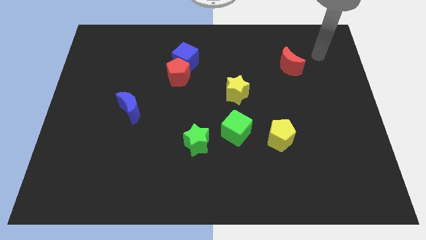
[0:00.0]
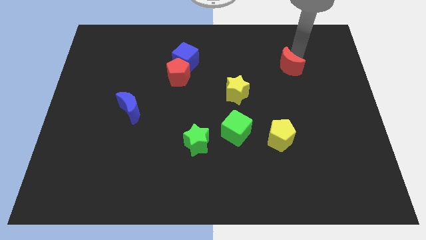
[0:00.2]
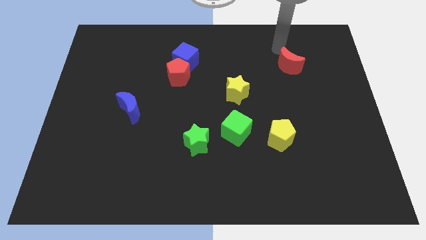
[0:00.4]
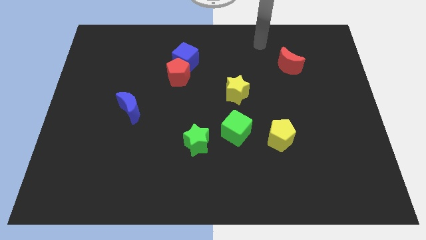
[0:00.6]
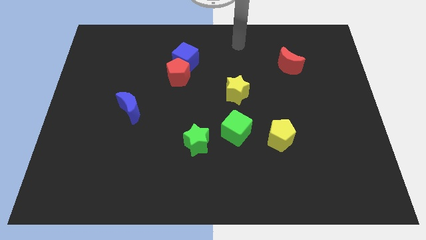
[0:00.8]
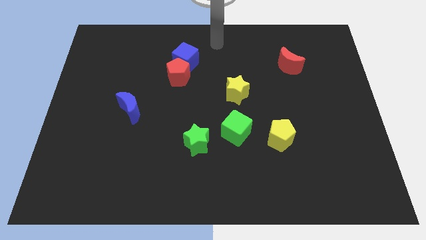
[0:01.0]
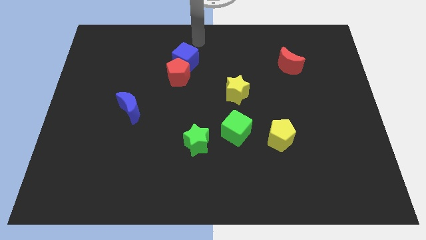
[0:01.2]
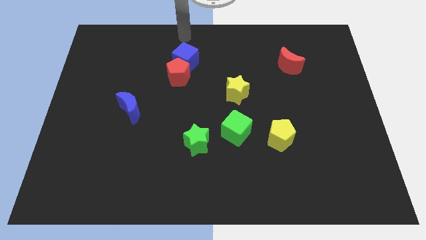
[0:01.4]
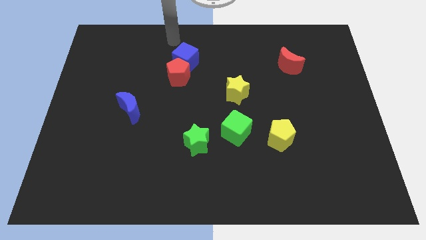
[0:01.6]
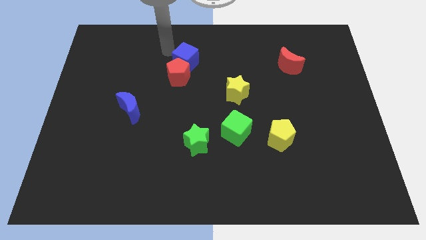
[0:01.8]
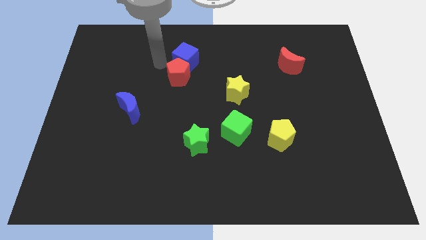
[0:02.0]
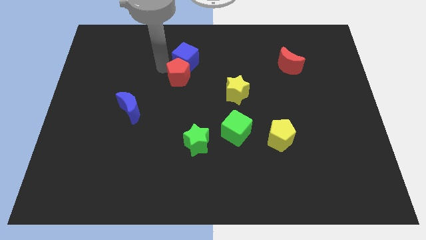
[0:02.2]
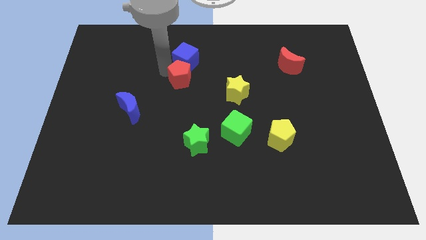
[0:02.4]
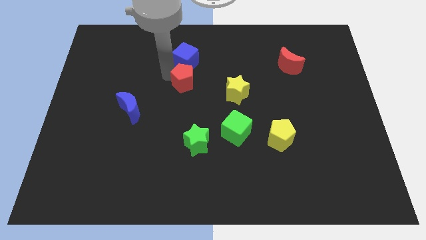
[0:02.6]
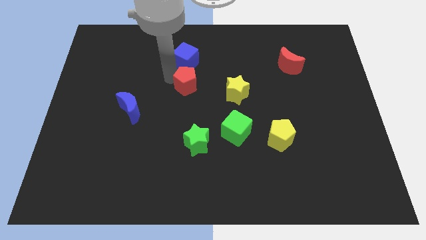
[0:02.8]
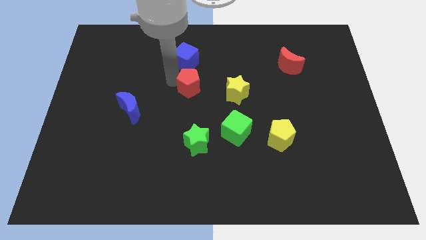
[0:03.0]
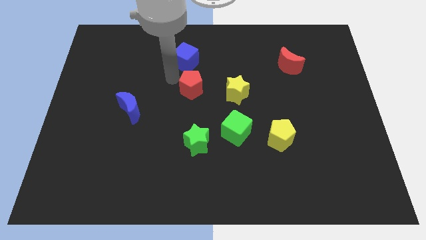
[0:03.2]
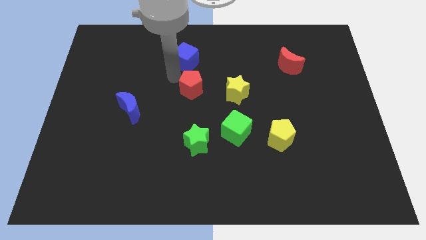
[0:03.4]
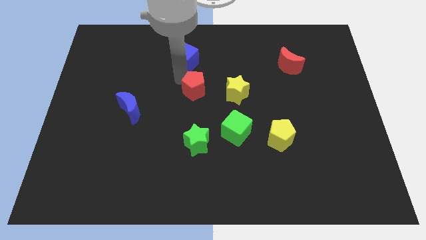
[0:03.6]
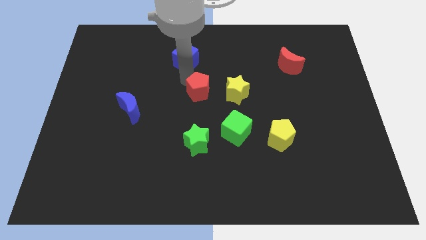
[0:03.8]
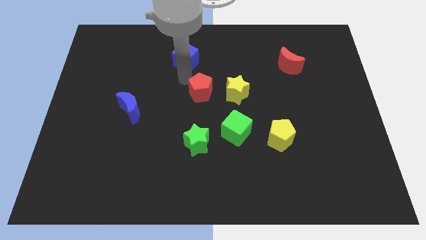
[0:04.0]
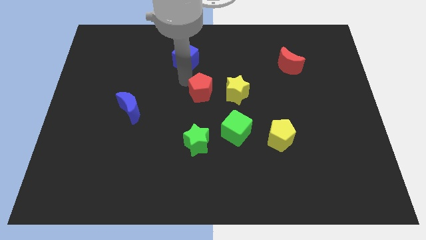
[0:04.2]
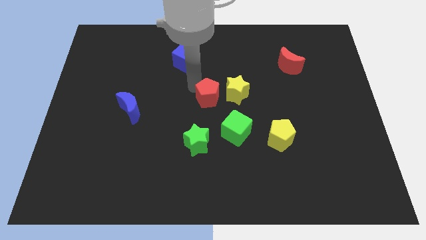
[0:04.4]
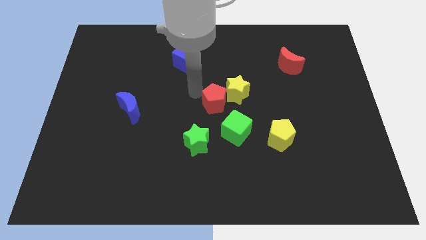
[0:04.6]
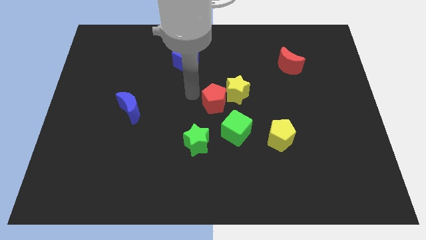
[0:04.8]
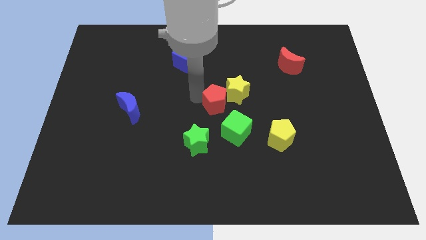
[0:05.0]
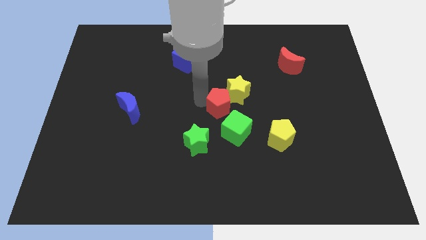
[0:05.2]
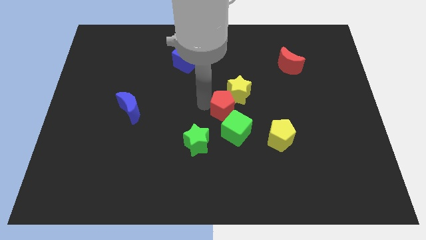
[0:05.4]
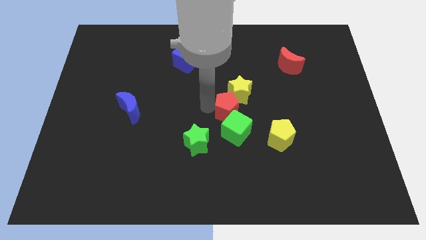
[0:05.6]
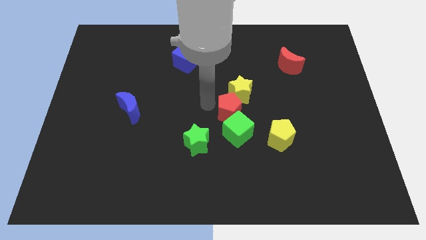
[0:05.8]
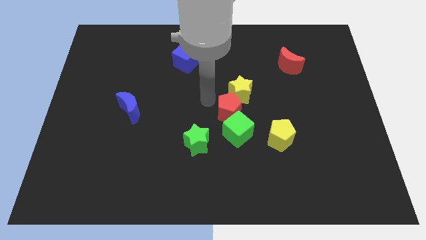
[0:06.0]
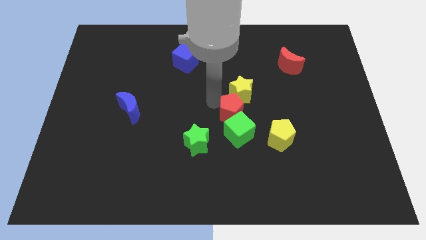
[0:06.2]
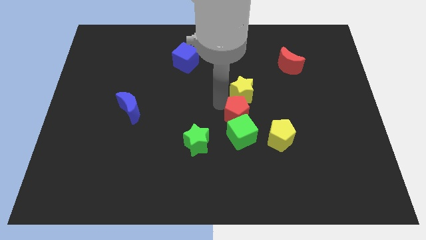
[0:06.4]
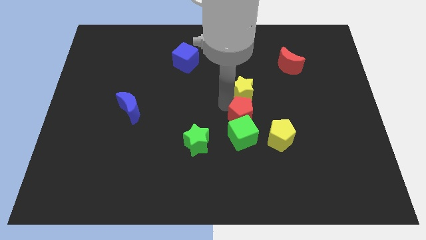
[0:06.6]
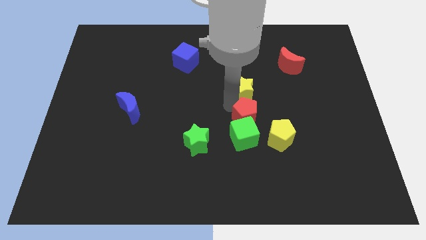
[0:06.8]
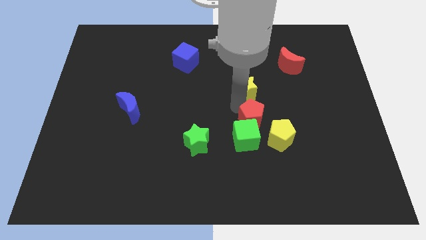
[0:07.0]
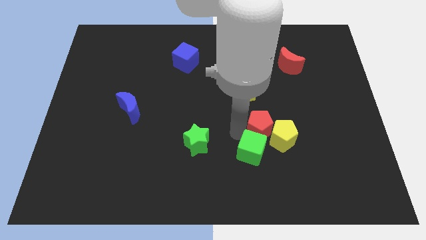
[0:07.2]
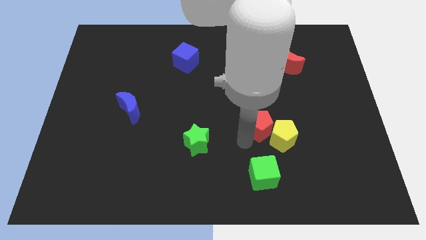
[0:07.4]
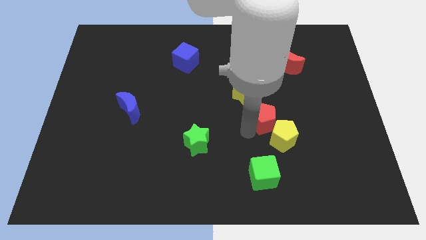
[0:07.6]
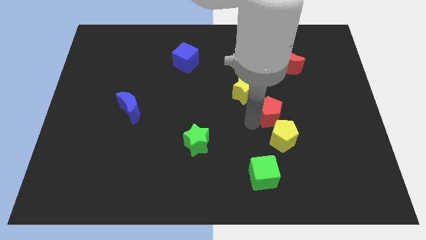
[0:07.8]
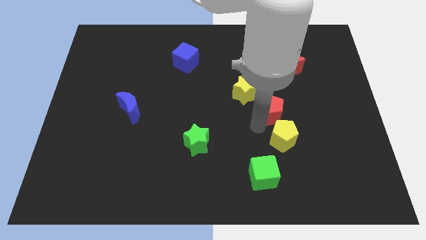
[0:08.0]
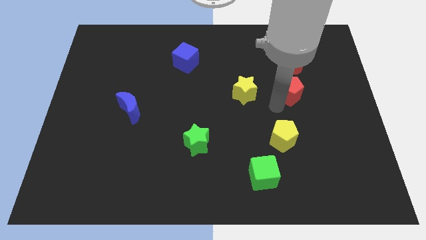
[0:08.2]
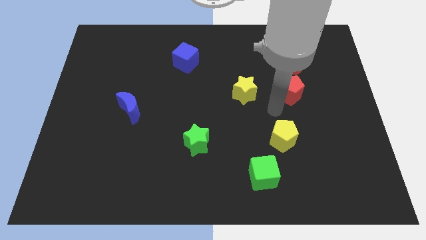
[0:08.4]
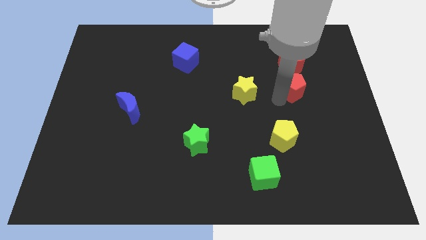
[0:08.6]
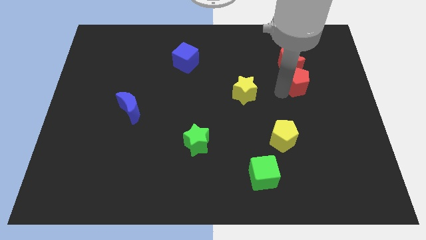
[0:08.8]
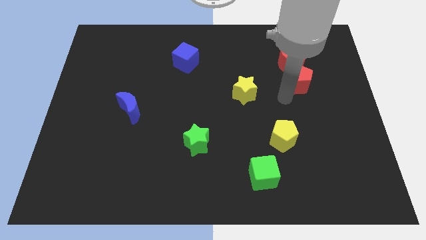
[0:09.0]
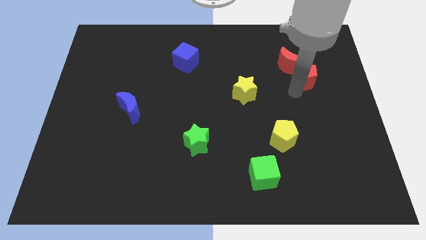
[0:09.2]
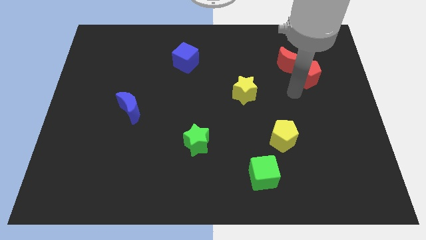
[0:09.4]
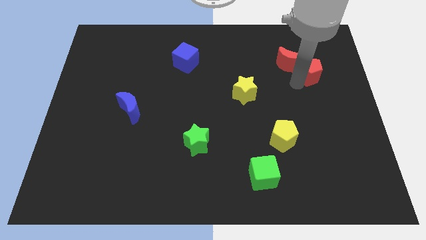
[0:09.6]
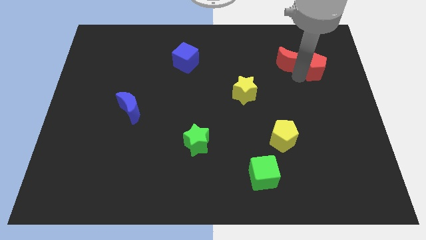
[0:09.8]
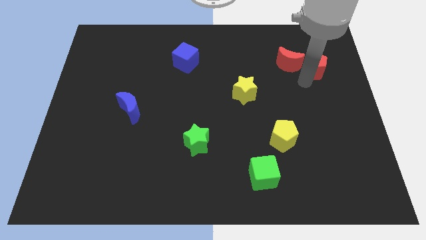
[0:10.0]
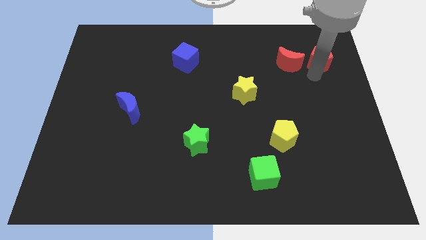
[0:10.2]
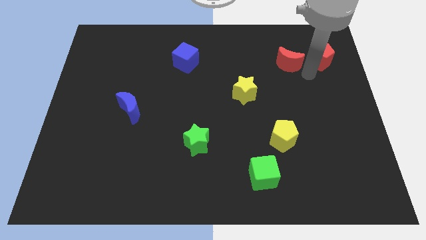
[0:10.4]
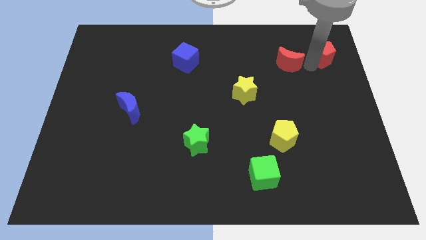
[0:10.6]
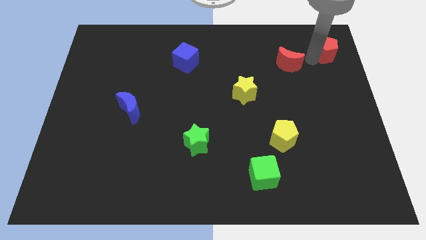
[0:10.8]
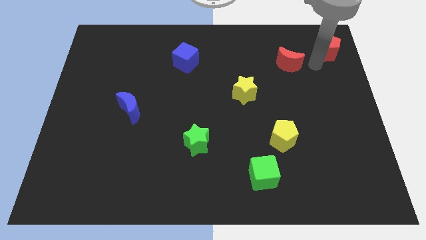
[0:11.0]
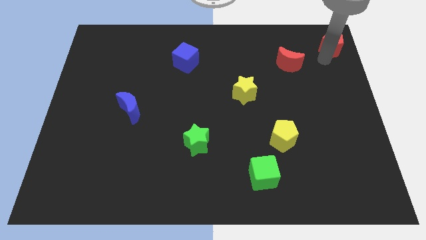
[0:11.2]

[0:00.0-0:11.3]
slide the red pentagon to the top right

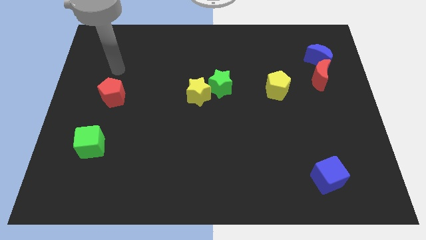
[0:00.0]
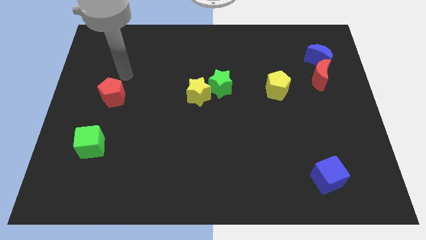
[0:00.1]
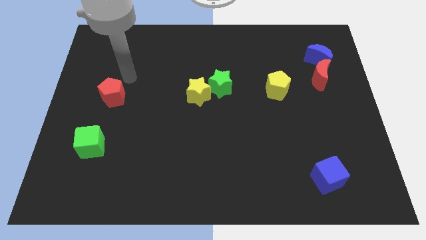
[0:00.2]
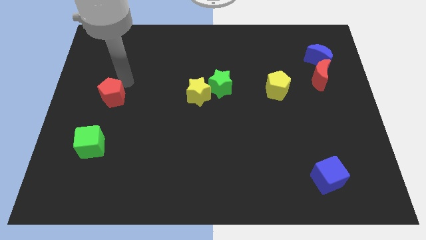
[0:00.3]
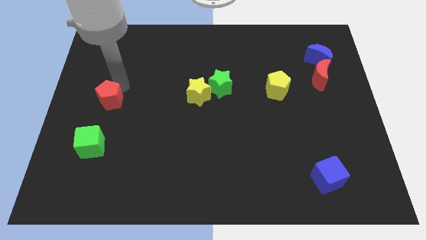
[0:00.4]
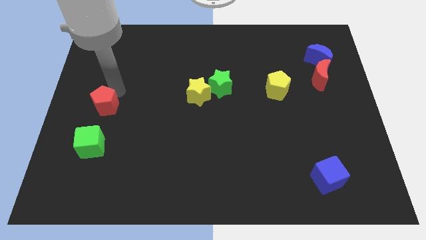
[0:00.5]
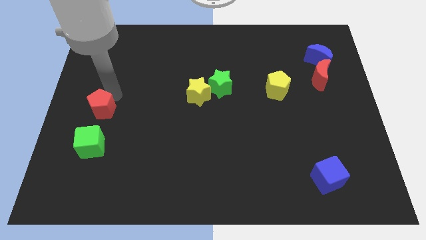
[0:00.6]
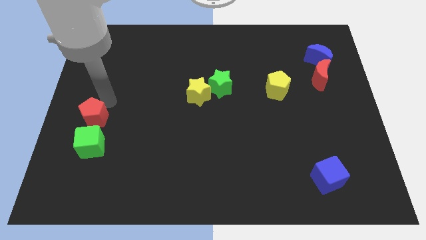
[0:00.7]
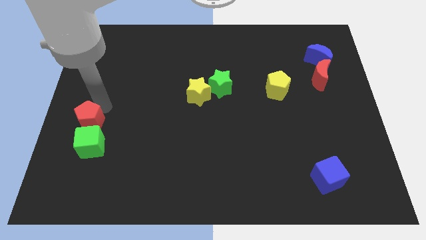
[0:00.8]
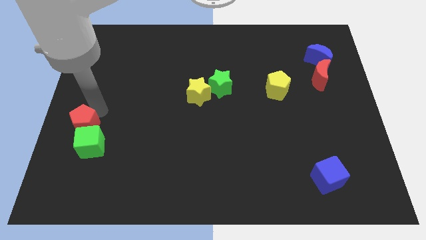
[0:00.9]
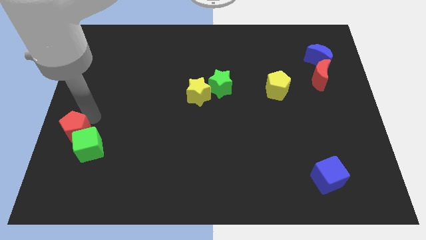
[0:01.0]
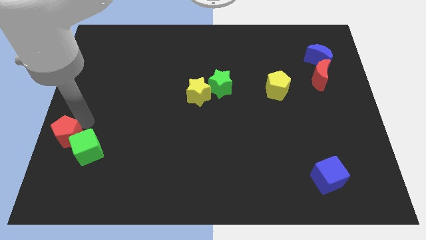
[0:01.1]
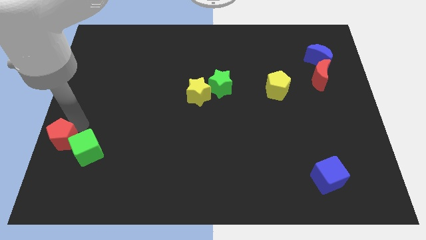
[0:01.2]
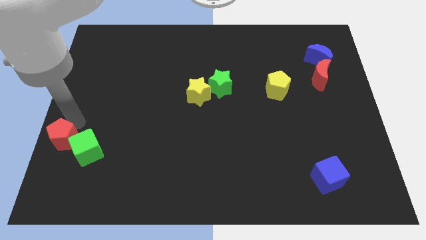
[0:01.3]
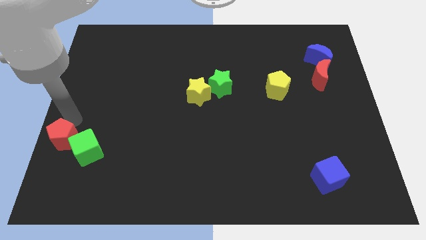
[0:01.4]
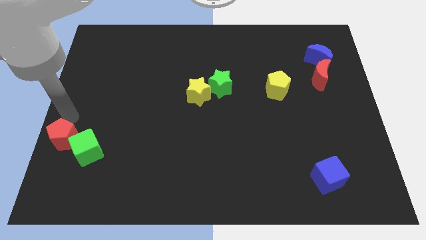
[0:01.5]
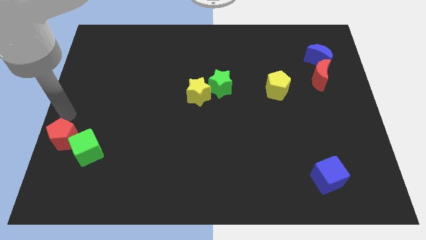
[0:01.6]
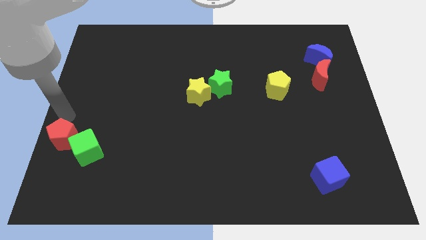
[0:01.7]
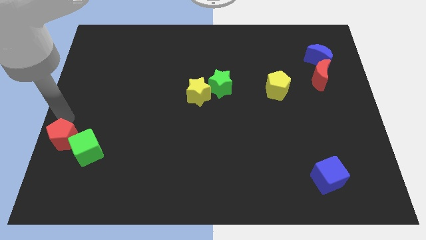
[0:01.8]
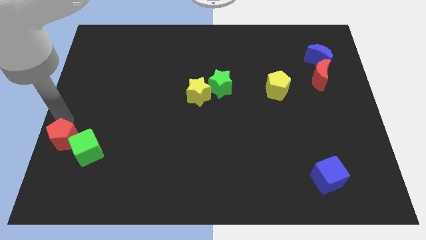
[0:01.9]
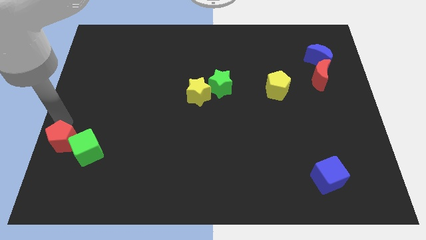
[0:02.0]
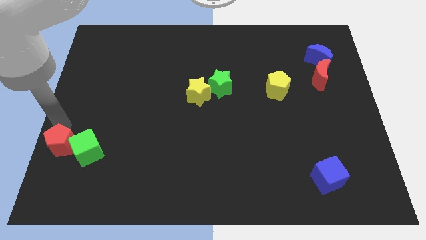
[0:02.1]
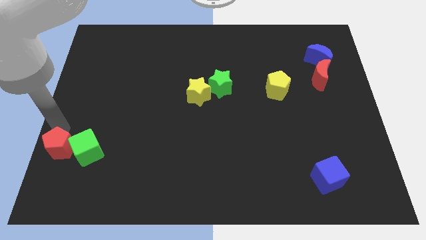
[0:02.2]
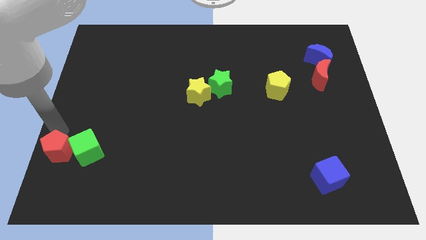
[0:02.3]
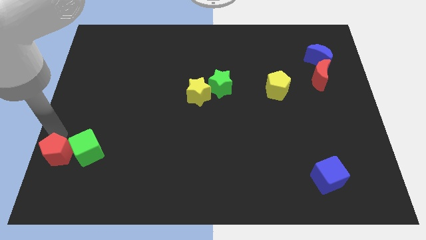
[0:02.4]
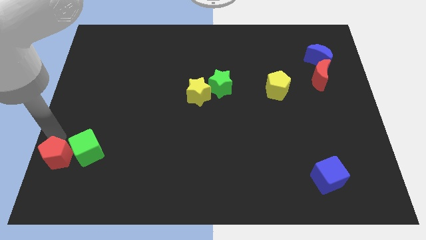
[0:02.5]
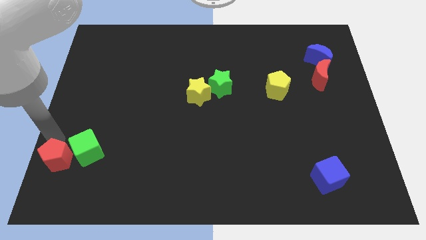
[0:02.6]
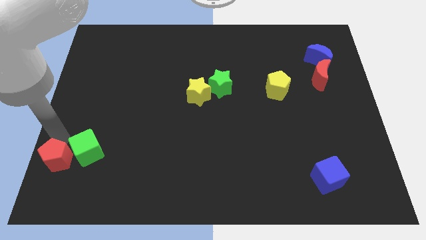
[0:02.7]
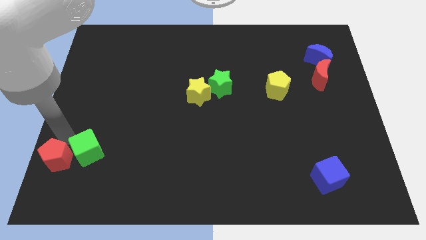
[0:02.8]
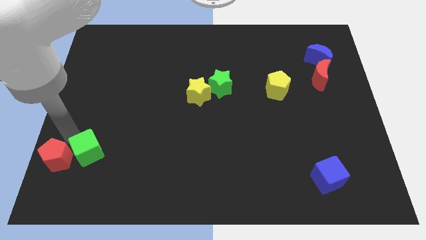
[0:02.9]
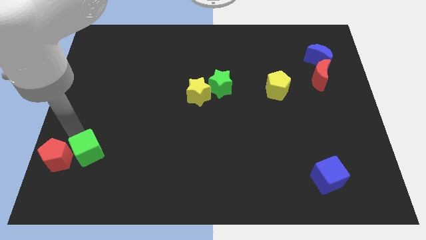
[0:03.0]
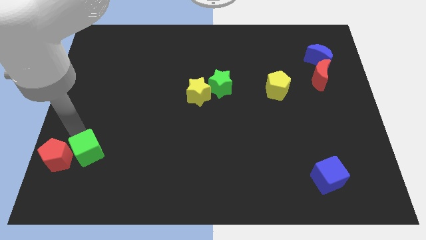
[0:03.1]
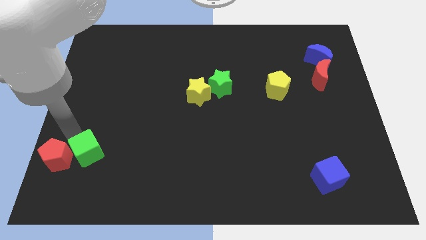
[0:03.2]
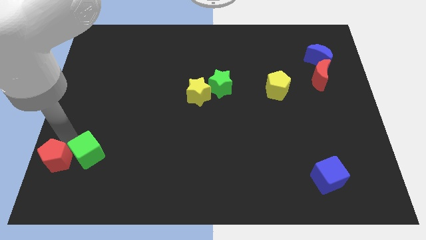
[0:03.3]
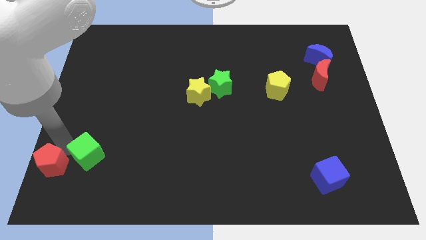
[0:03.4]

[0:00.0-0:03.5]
move the red pentagon to the bottom left
